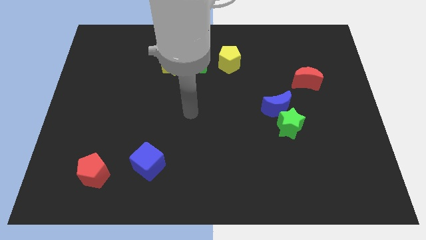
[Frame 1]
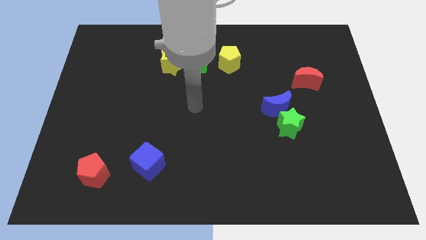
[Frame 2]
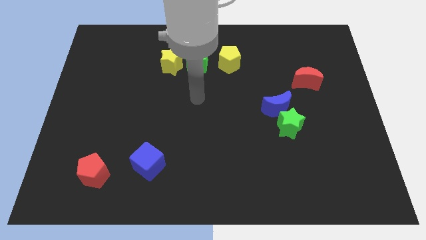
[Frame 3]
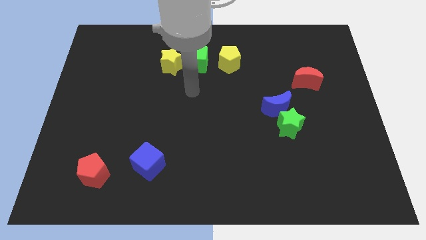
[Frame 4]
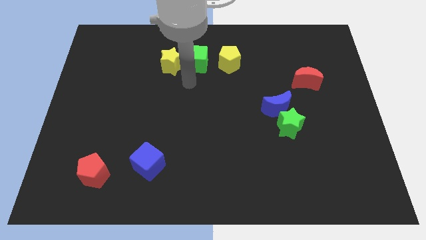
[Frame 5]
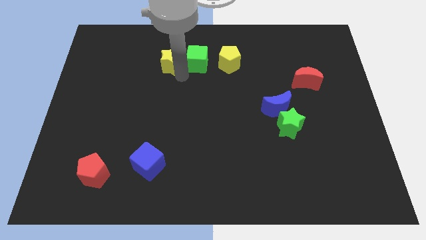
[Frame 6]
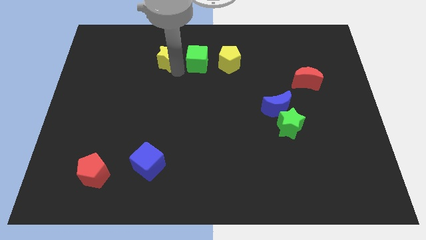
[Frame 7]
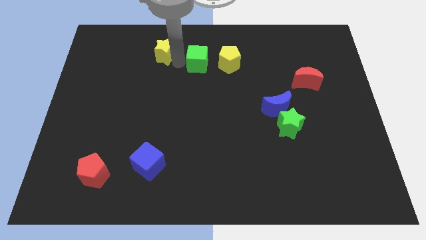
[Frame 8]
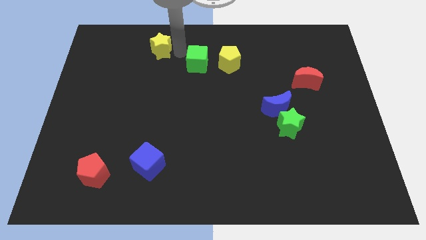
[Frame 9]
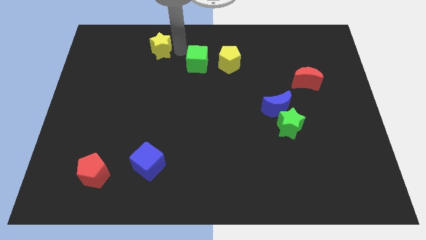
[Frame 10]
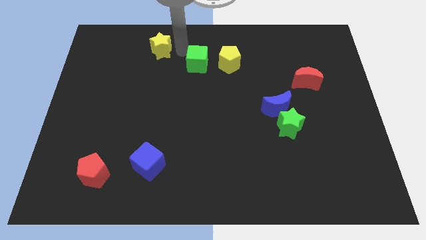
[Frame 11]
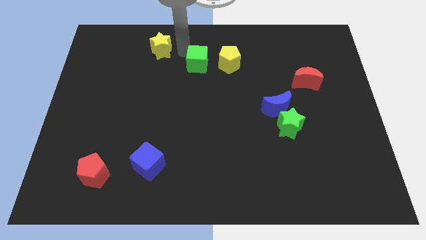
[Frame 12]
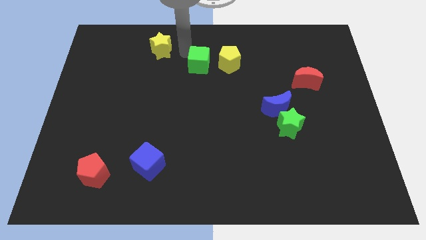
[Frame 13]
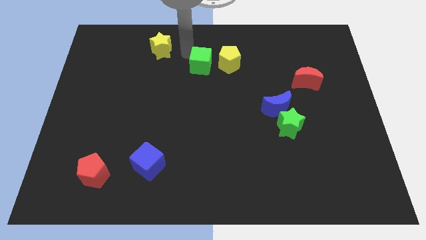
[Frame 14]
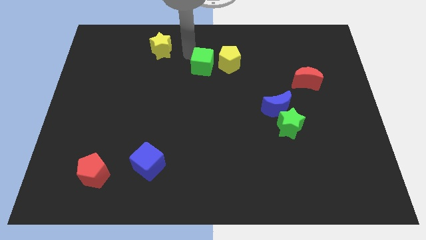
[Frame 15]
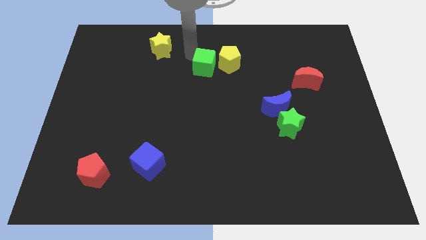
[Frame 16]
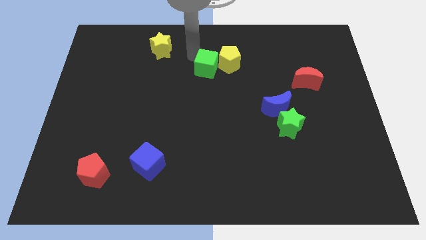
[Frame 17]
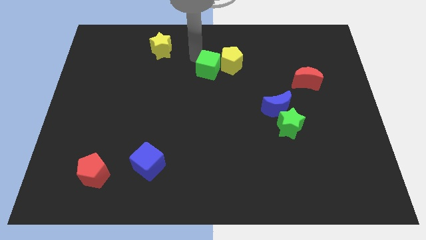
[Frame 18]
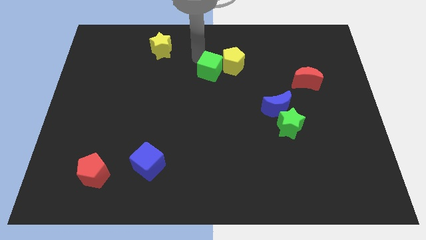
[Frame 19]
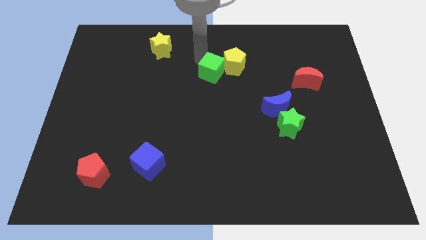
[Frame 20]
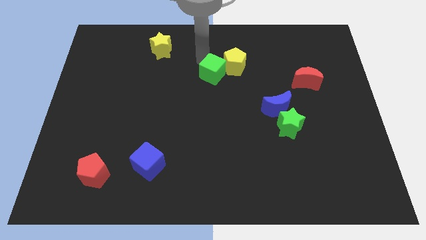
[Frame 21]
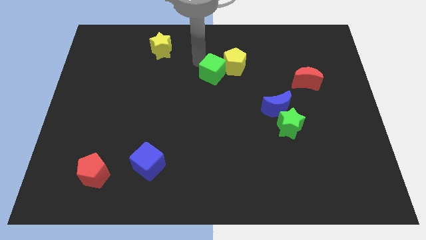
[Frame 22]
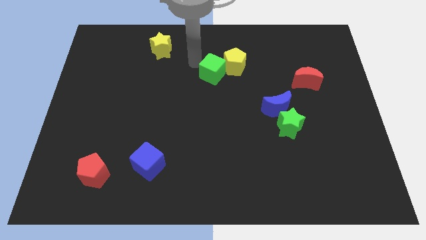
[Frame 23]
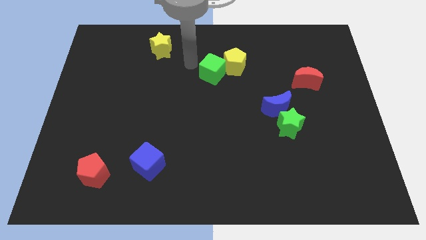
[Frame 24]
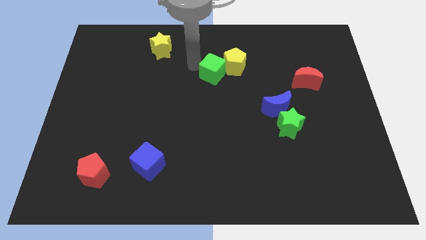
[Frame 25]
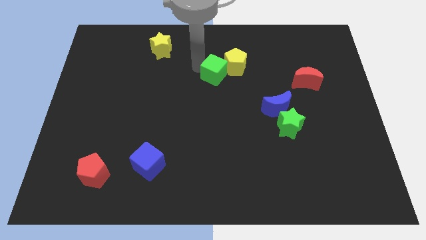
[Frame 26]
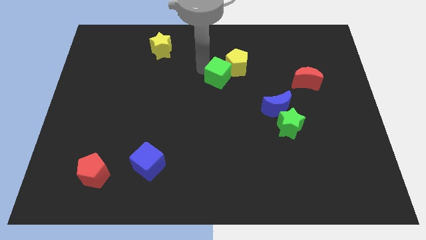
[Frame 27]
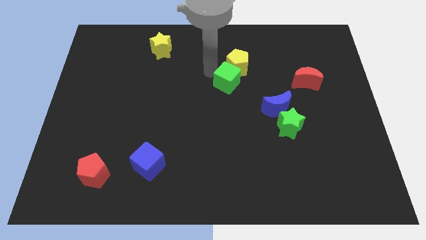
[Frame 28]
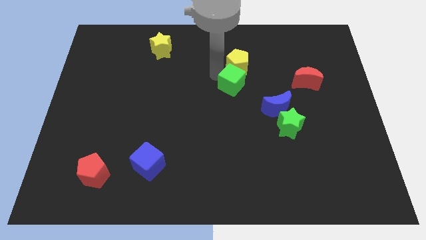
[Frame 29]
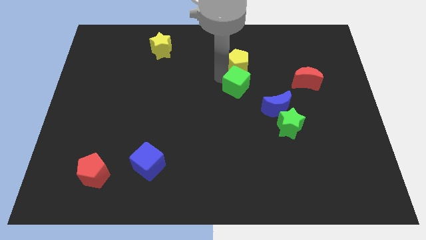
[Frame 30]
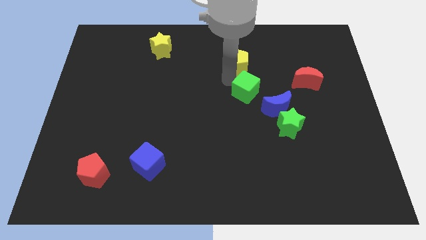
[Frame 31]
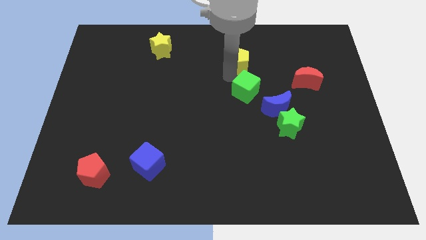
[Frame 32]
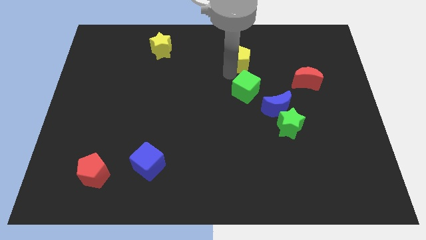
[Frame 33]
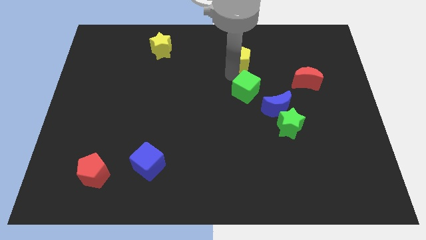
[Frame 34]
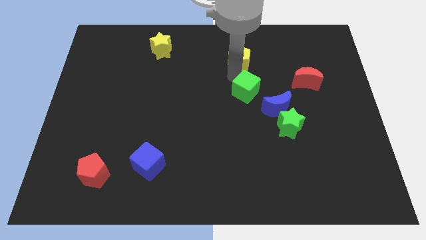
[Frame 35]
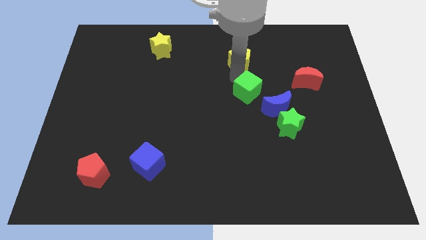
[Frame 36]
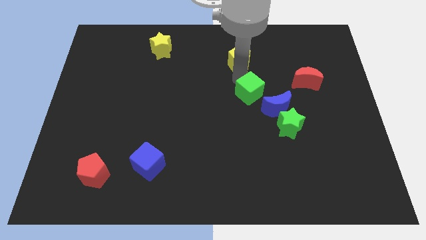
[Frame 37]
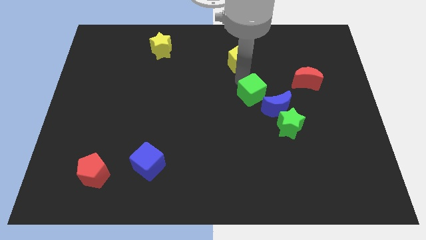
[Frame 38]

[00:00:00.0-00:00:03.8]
push the green cube to the top left side of the green star

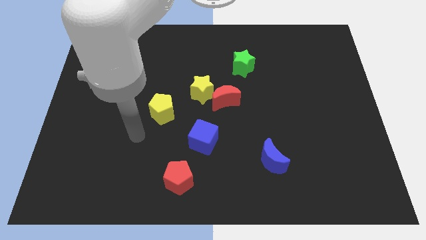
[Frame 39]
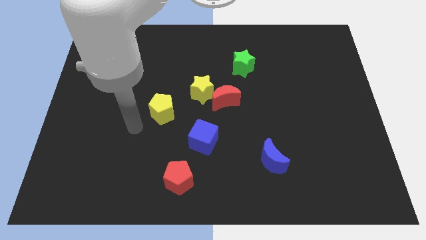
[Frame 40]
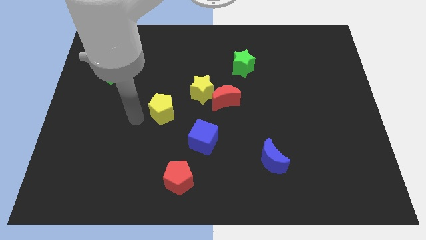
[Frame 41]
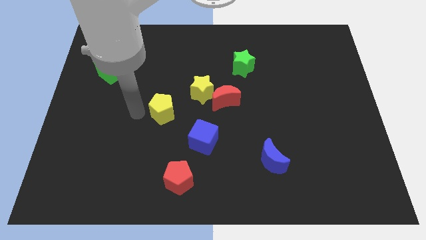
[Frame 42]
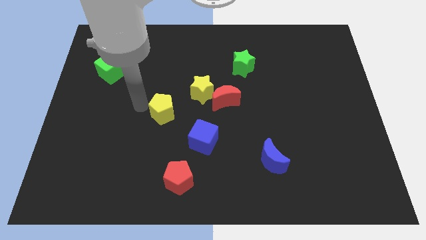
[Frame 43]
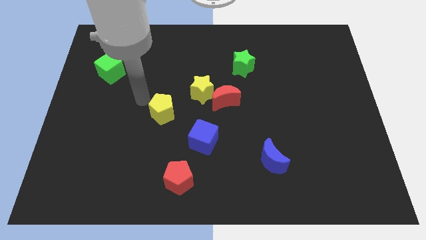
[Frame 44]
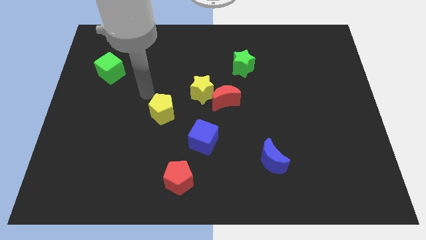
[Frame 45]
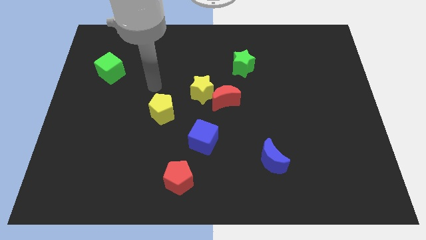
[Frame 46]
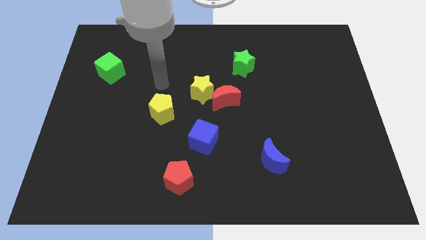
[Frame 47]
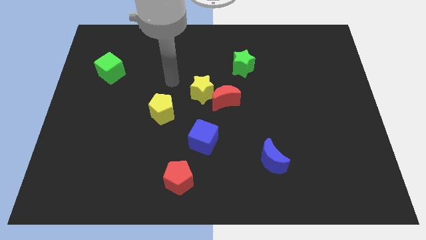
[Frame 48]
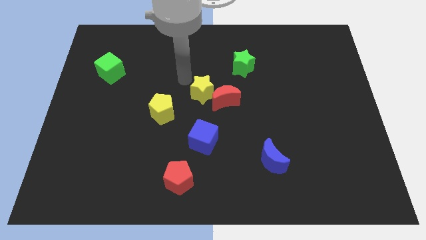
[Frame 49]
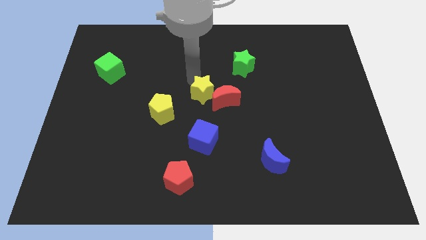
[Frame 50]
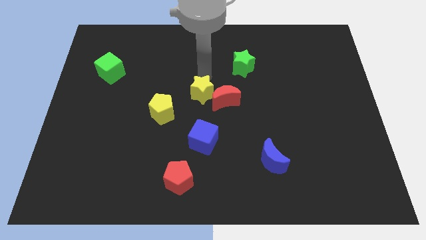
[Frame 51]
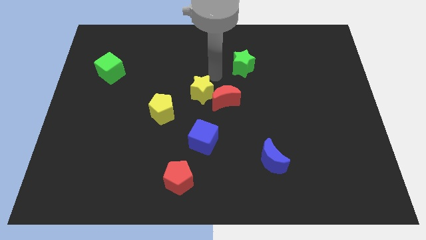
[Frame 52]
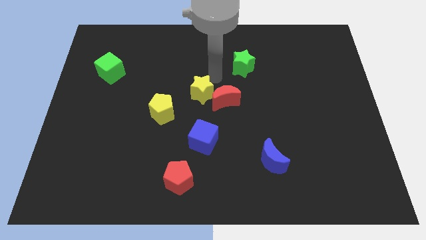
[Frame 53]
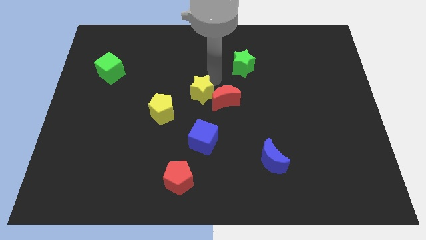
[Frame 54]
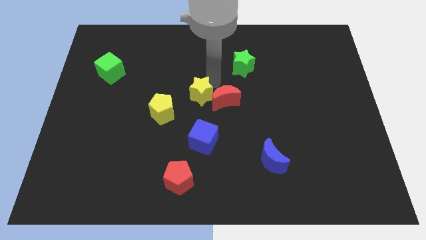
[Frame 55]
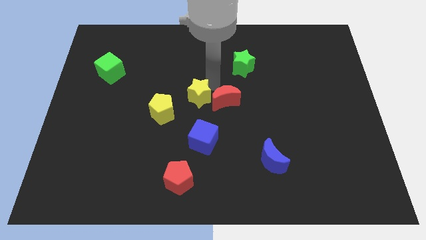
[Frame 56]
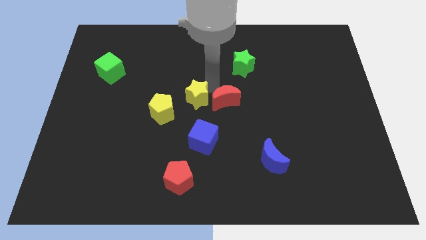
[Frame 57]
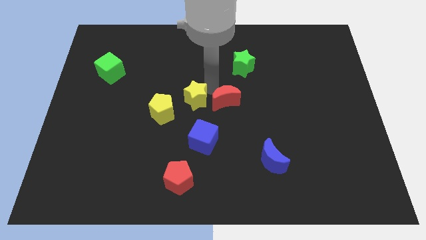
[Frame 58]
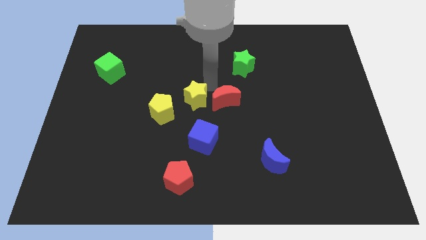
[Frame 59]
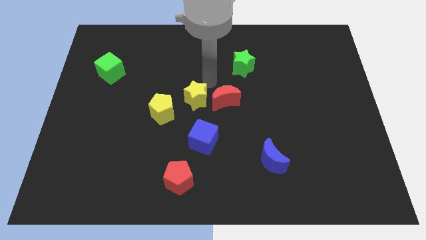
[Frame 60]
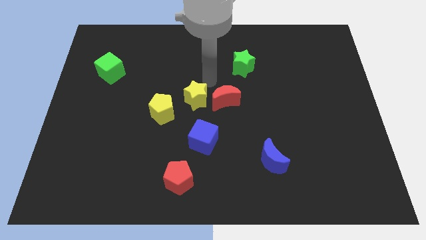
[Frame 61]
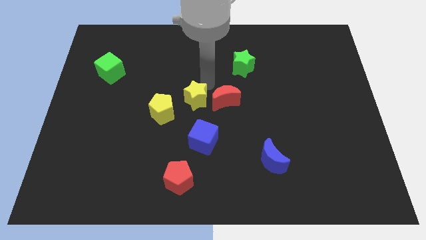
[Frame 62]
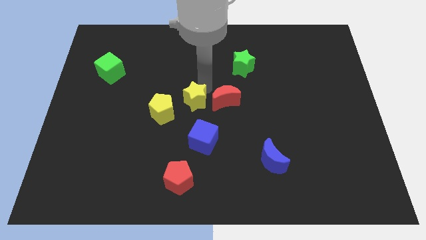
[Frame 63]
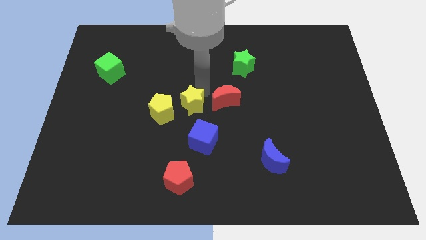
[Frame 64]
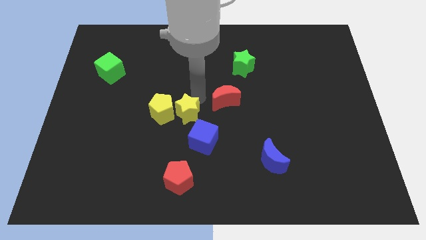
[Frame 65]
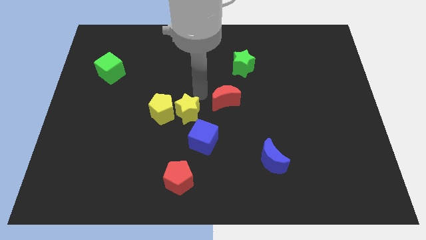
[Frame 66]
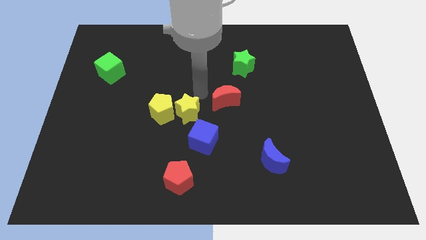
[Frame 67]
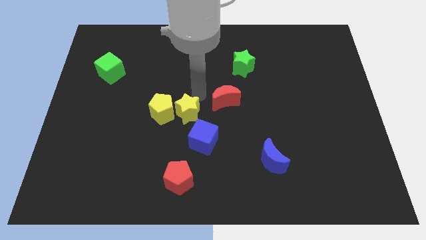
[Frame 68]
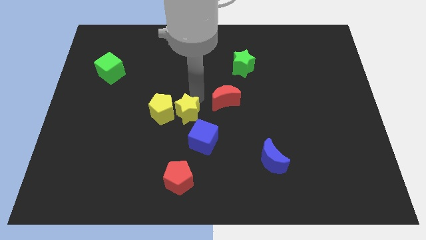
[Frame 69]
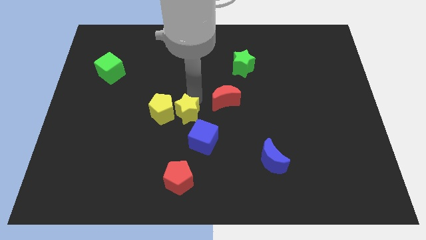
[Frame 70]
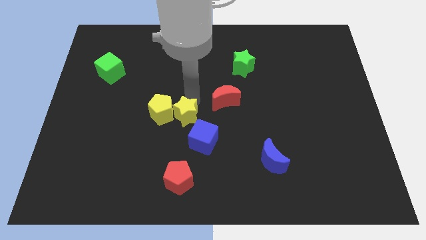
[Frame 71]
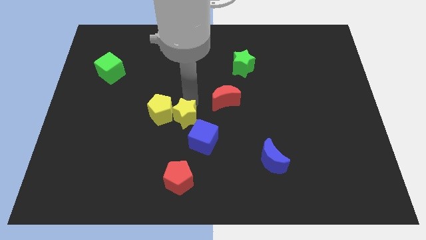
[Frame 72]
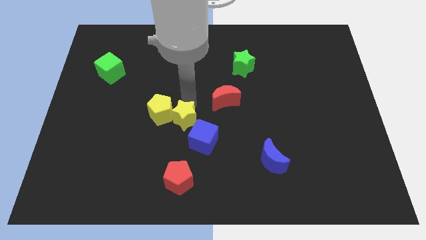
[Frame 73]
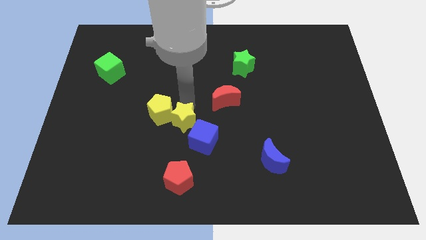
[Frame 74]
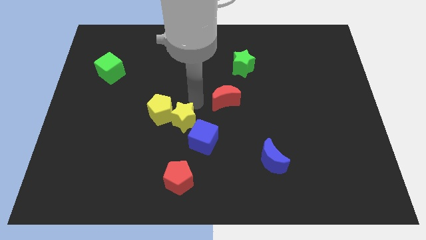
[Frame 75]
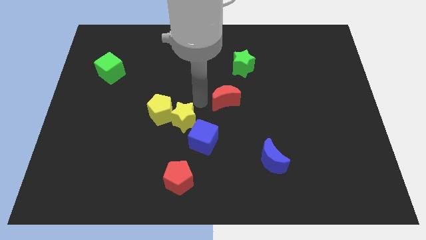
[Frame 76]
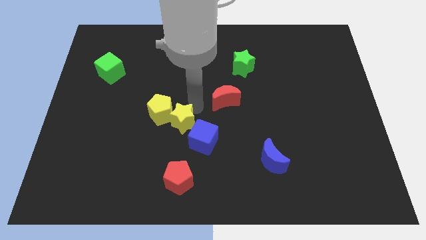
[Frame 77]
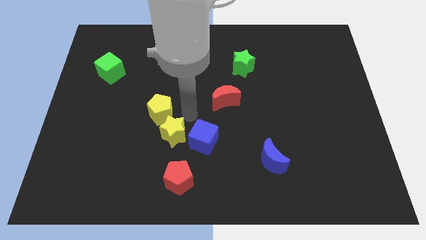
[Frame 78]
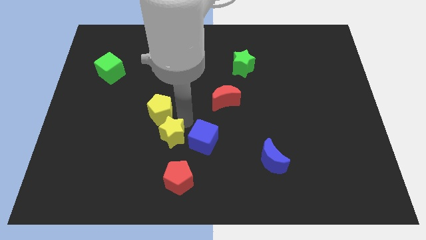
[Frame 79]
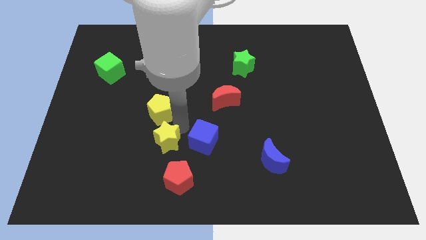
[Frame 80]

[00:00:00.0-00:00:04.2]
slide the yellow star diagonally up and to the left of the red pentagon

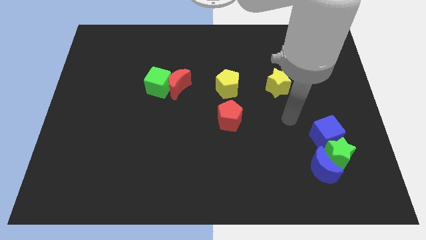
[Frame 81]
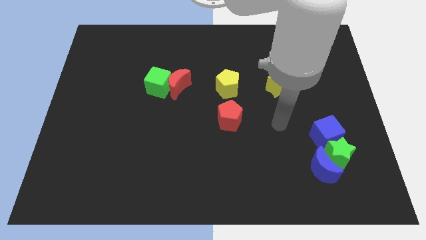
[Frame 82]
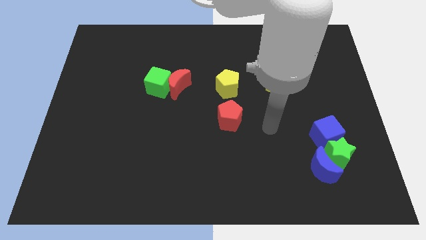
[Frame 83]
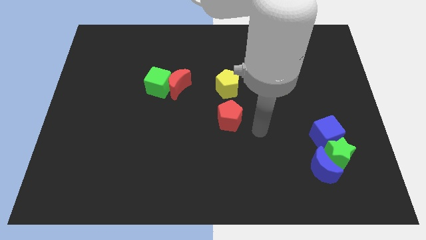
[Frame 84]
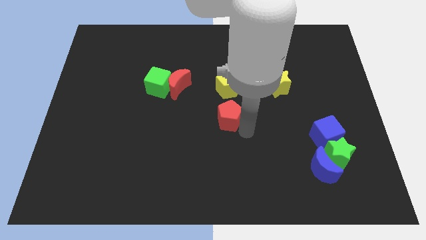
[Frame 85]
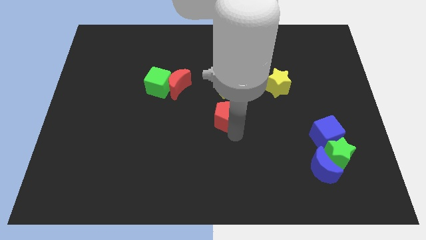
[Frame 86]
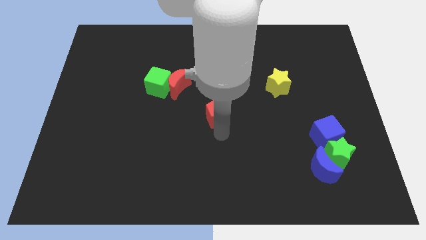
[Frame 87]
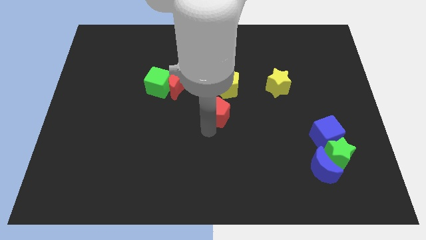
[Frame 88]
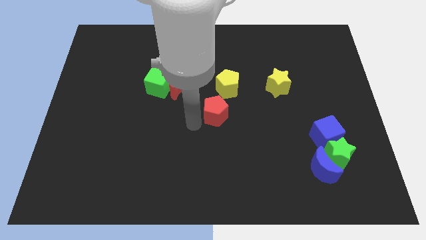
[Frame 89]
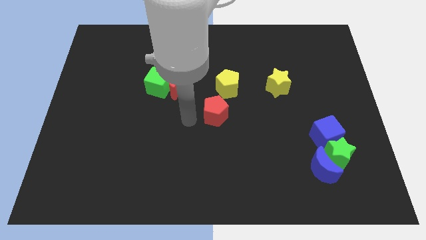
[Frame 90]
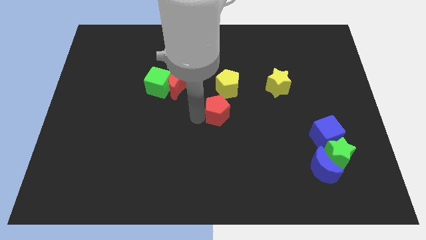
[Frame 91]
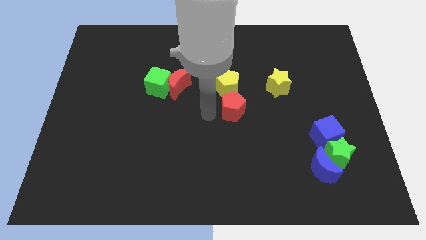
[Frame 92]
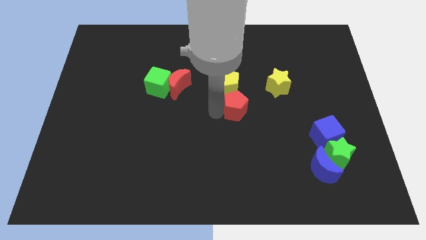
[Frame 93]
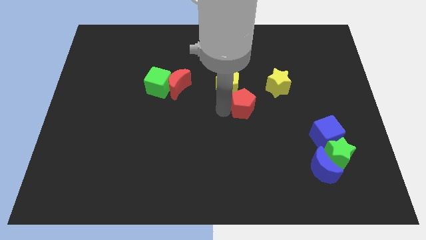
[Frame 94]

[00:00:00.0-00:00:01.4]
slide the red pentagon to the bottom left side of the yellow star
